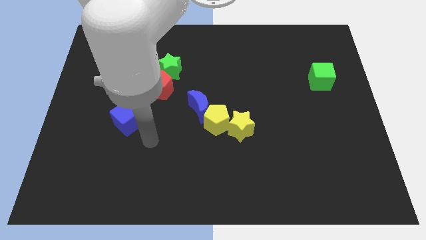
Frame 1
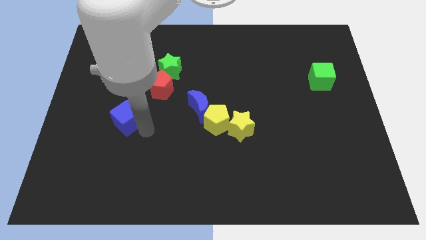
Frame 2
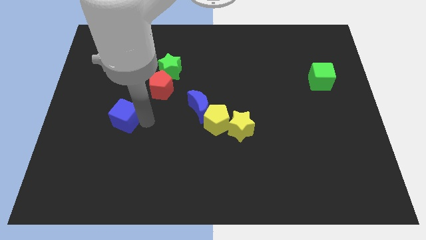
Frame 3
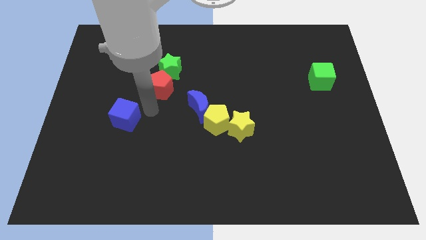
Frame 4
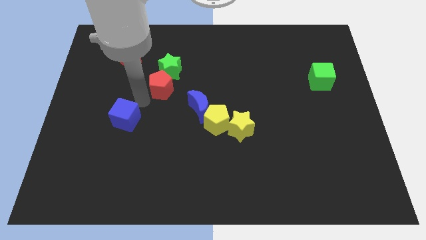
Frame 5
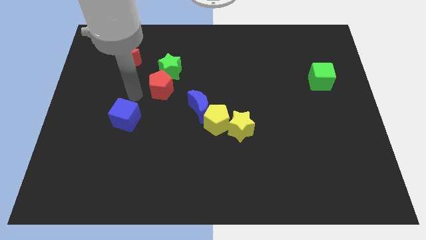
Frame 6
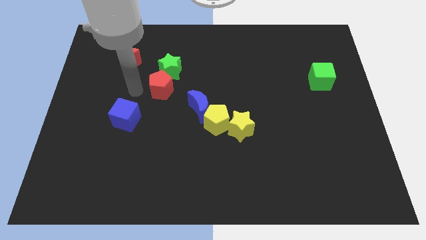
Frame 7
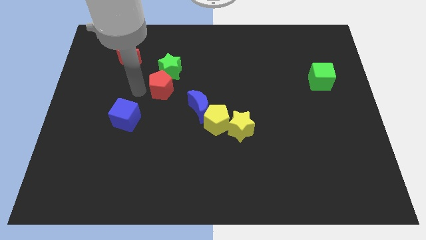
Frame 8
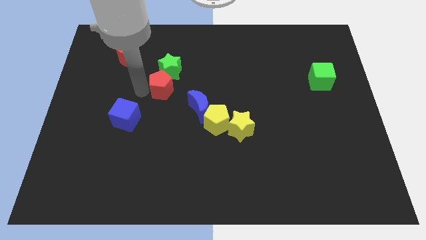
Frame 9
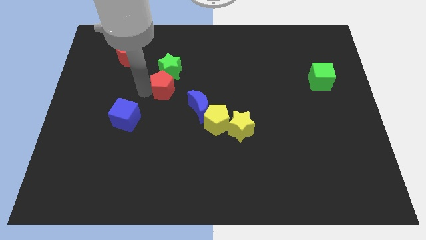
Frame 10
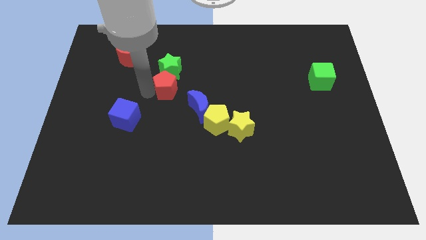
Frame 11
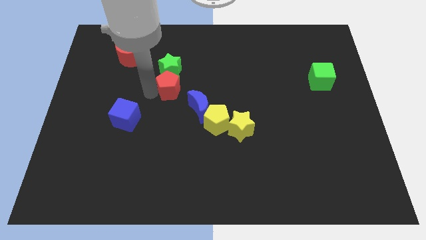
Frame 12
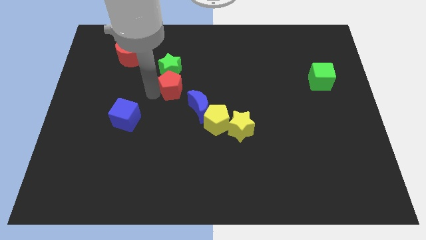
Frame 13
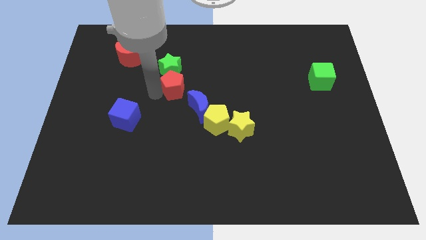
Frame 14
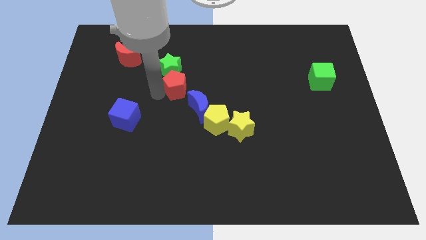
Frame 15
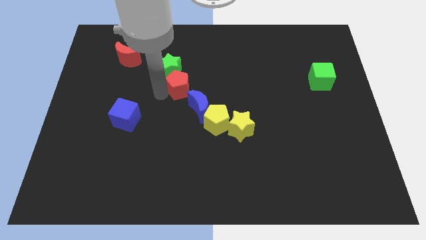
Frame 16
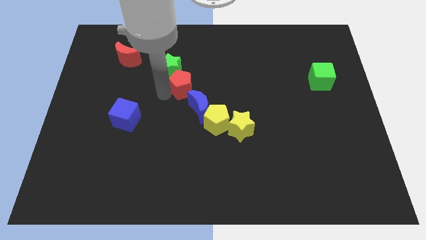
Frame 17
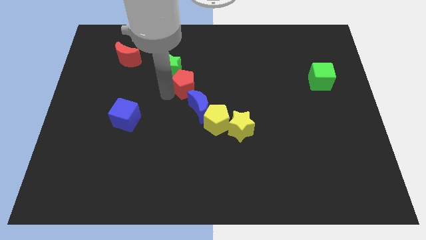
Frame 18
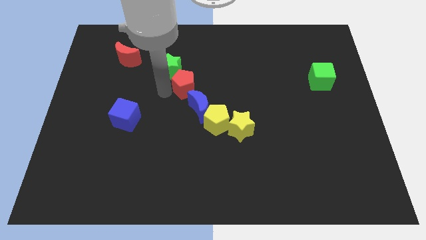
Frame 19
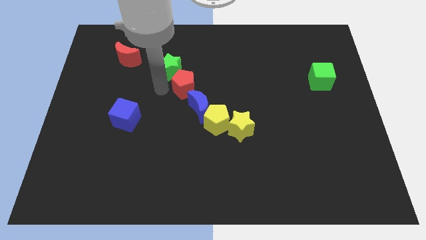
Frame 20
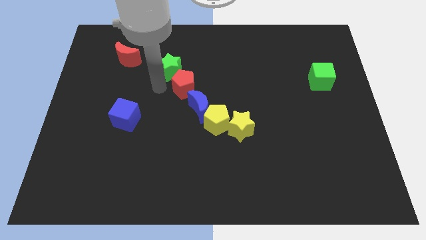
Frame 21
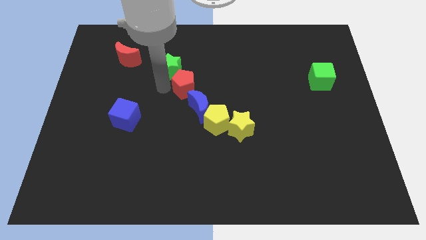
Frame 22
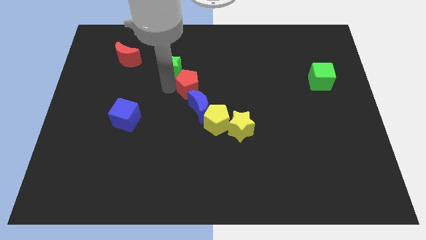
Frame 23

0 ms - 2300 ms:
slightly push the red pentagon to the right

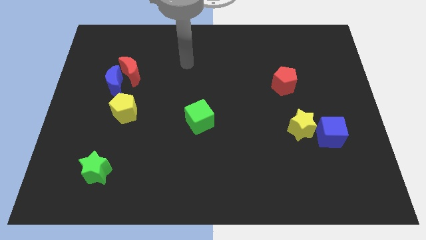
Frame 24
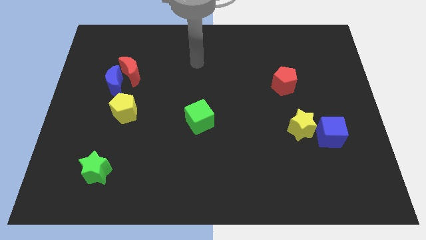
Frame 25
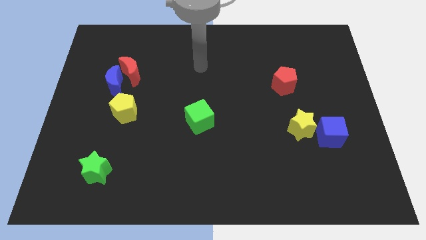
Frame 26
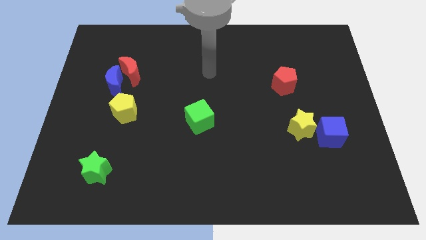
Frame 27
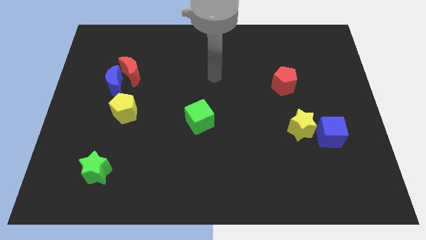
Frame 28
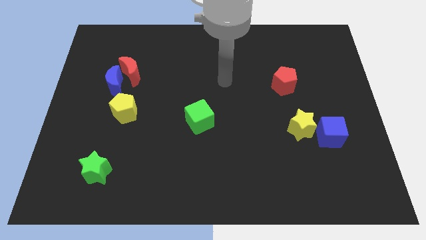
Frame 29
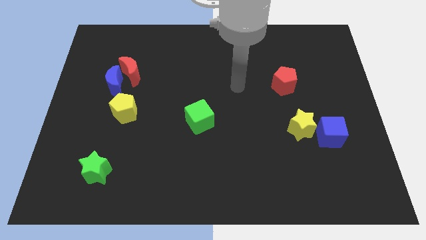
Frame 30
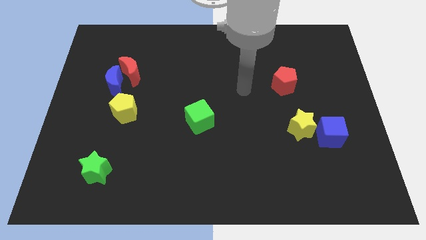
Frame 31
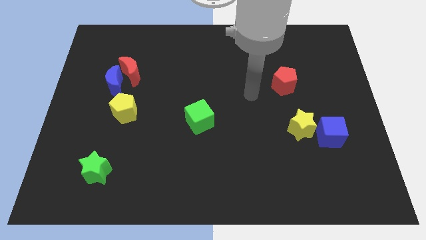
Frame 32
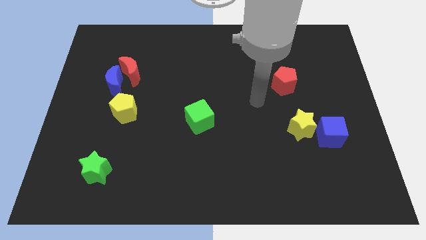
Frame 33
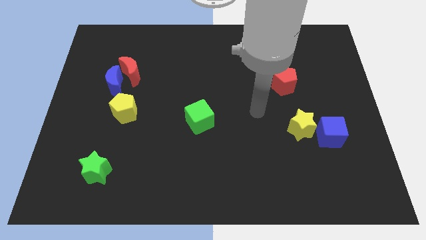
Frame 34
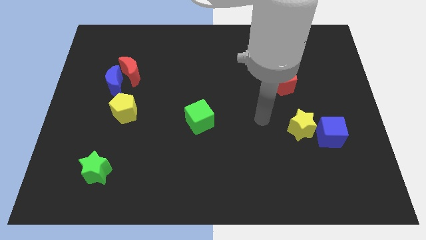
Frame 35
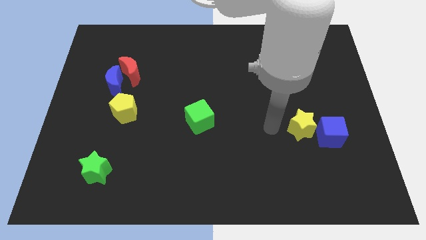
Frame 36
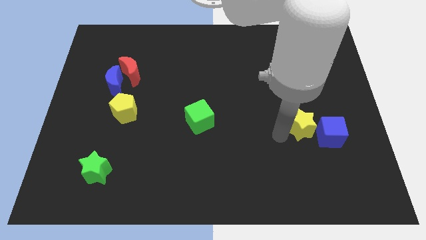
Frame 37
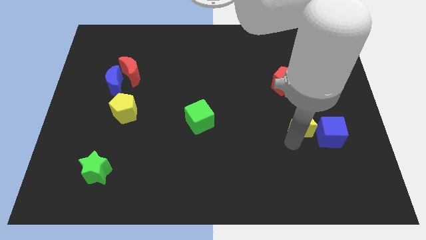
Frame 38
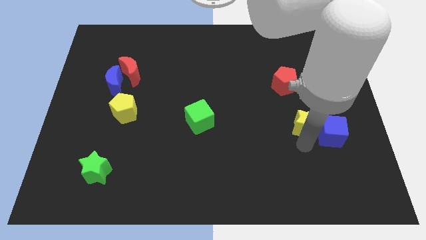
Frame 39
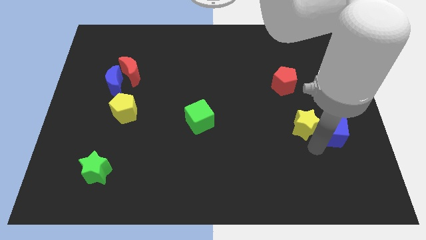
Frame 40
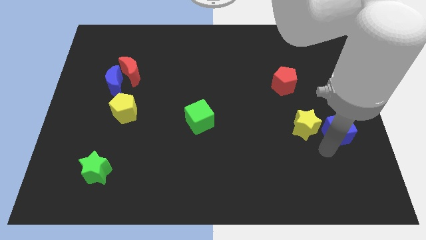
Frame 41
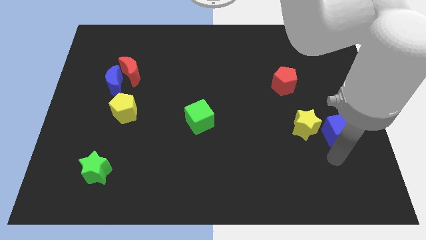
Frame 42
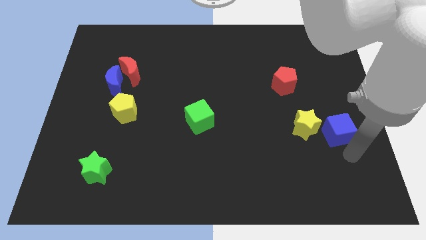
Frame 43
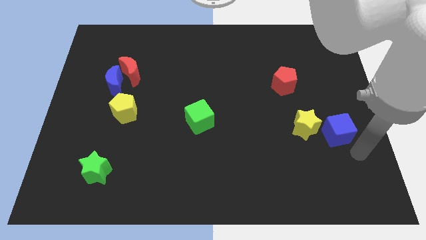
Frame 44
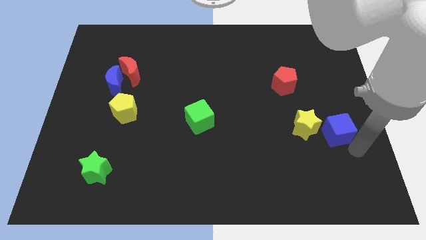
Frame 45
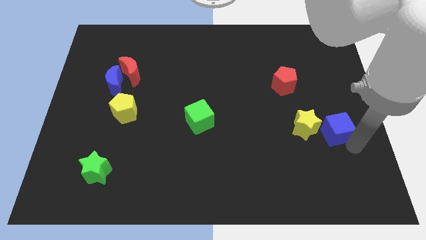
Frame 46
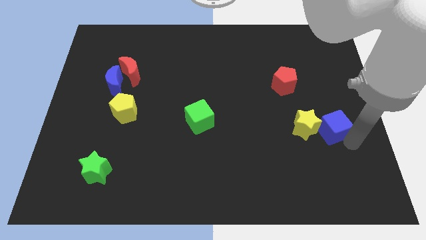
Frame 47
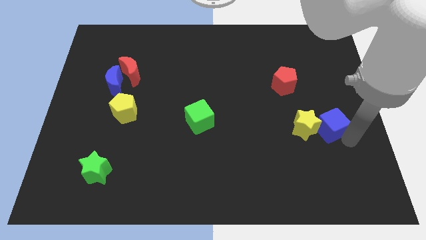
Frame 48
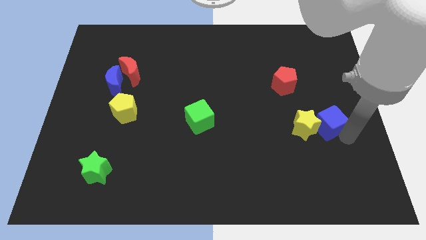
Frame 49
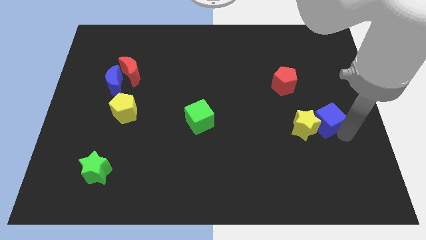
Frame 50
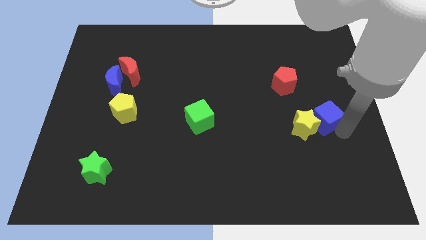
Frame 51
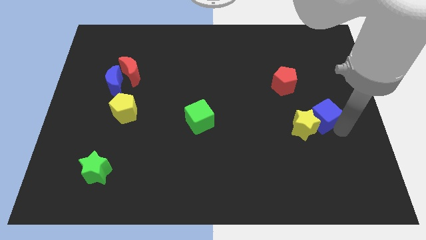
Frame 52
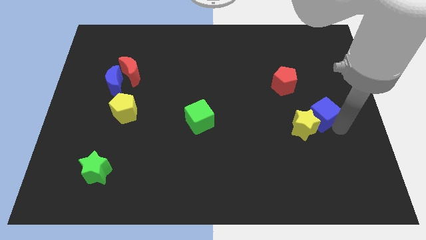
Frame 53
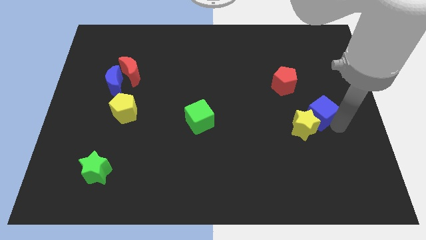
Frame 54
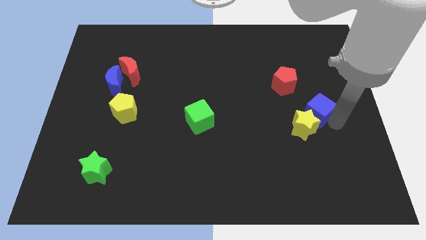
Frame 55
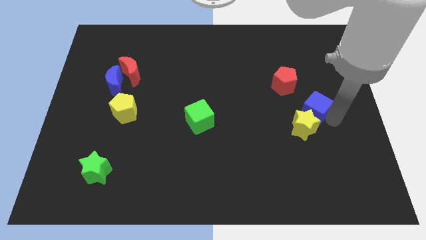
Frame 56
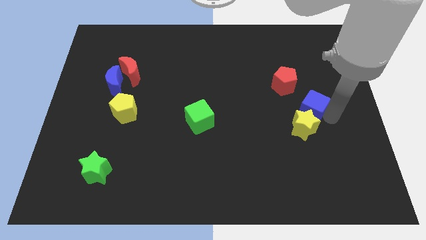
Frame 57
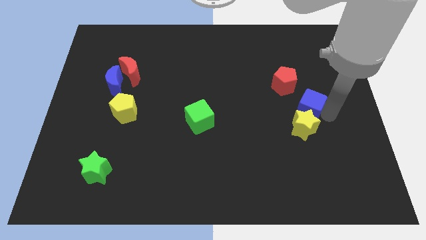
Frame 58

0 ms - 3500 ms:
push the blue cube diagonally upwards and to the left a little bit

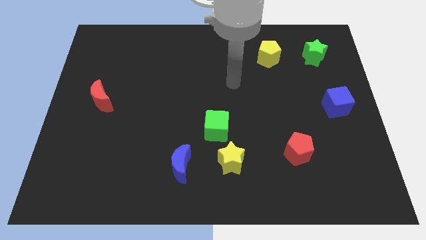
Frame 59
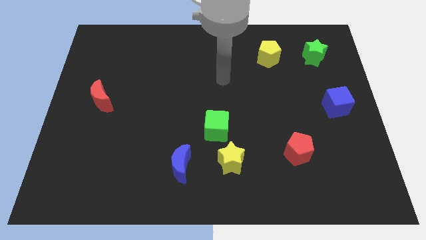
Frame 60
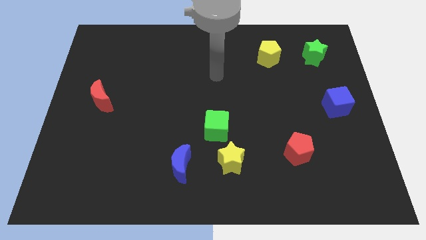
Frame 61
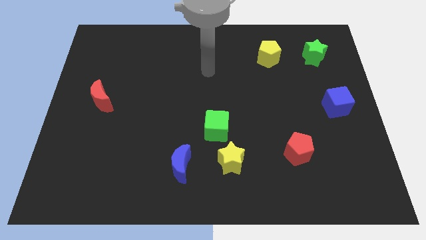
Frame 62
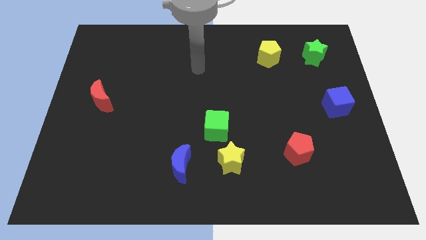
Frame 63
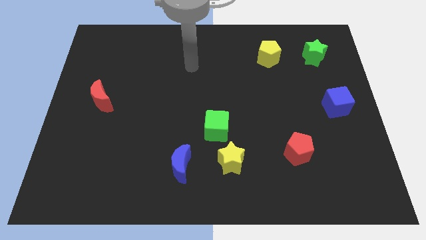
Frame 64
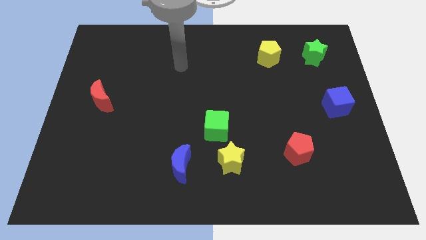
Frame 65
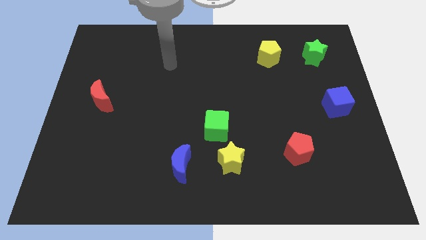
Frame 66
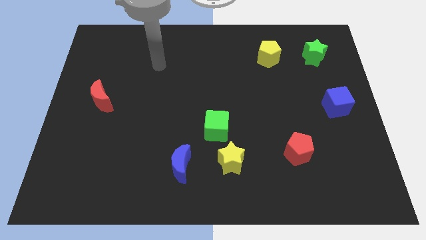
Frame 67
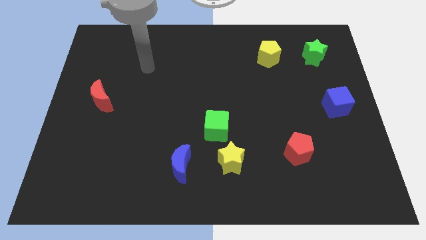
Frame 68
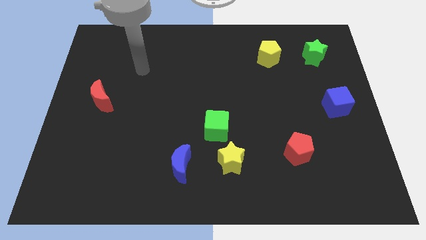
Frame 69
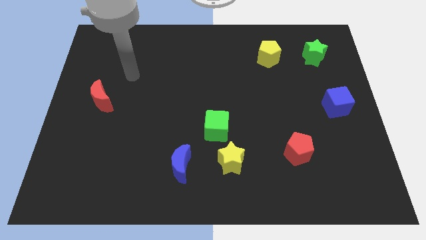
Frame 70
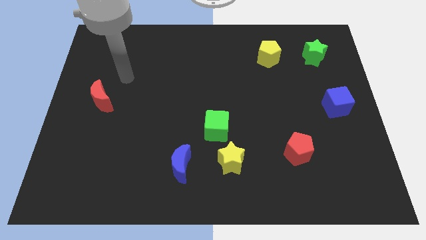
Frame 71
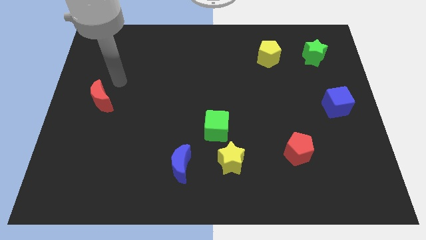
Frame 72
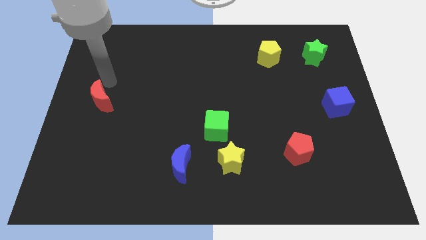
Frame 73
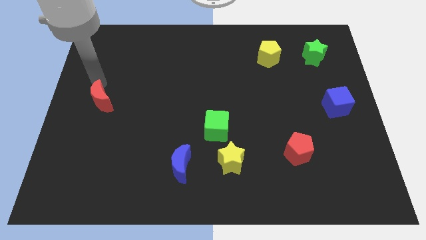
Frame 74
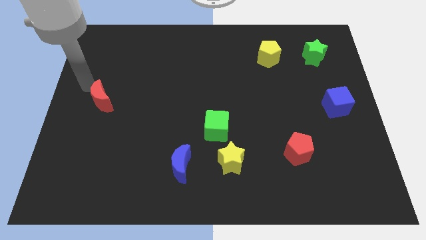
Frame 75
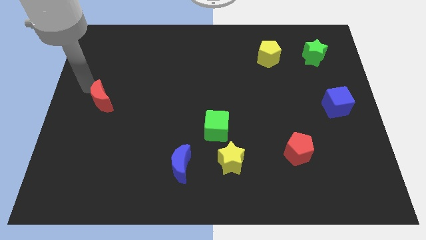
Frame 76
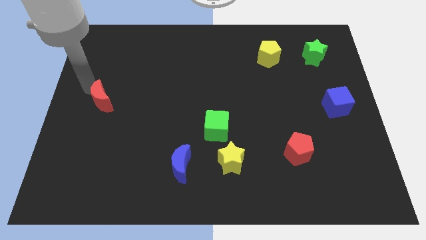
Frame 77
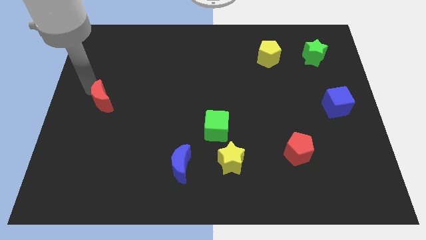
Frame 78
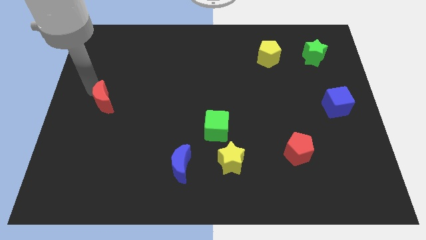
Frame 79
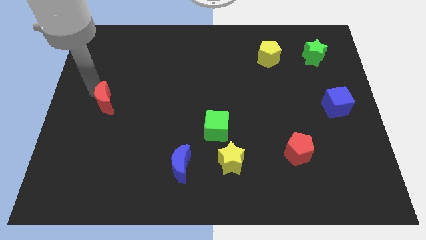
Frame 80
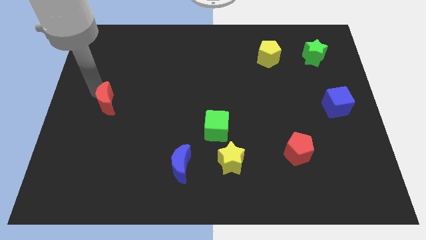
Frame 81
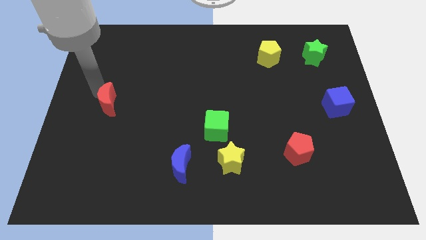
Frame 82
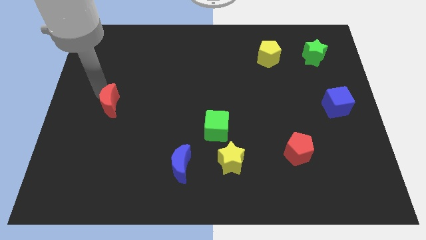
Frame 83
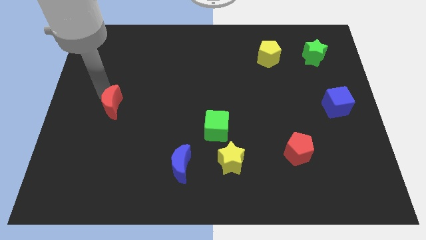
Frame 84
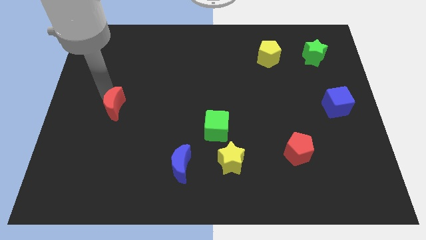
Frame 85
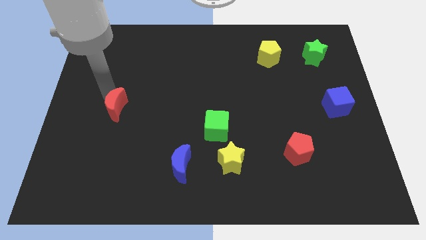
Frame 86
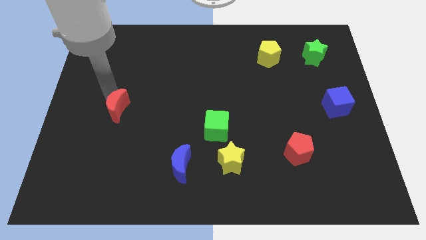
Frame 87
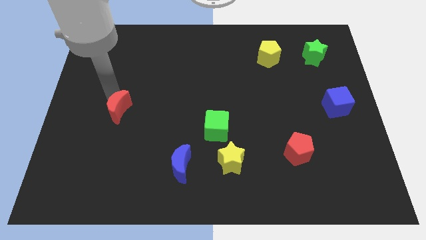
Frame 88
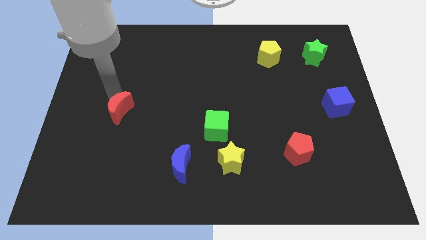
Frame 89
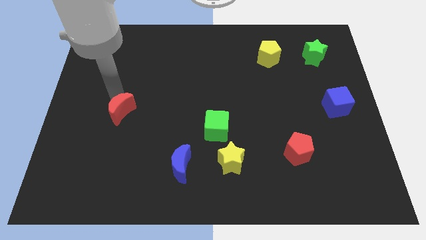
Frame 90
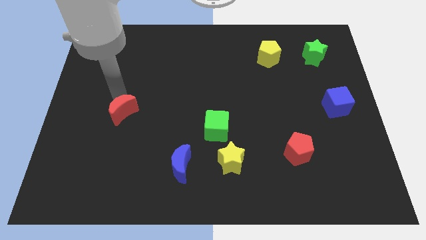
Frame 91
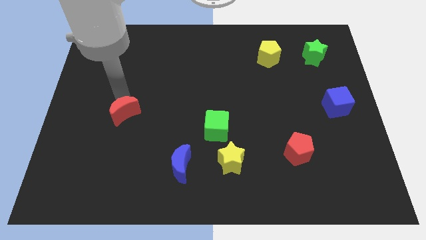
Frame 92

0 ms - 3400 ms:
move the red moon slightly diagonally downwards and right
